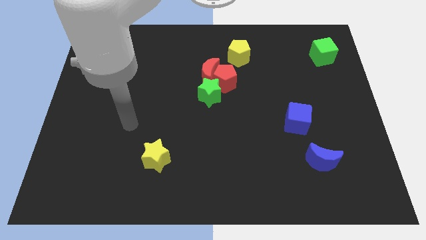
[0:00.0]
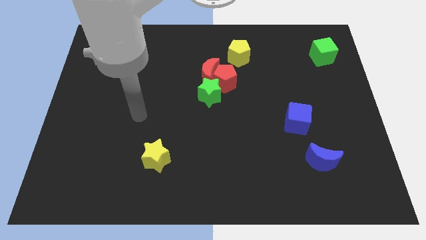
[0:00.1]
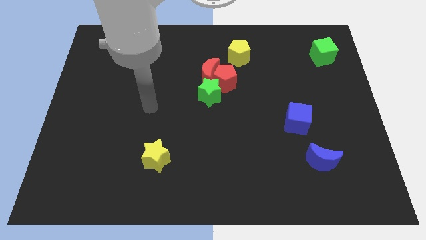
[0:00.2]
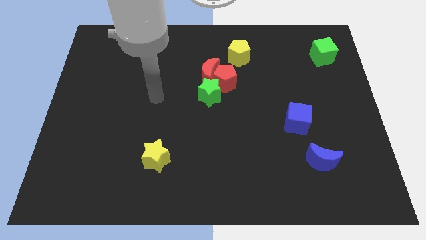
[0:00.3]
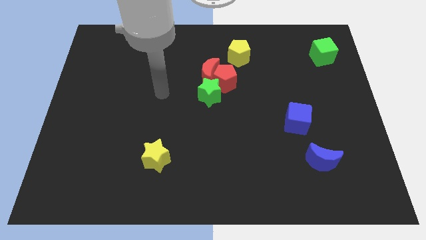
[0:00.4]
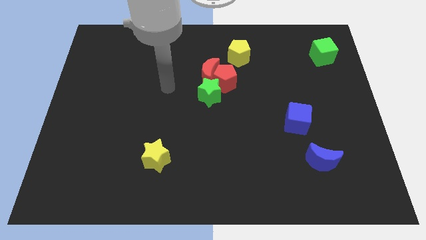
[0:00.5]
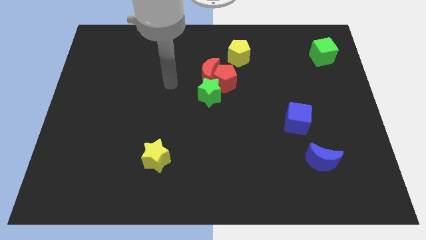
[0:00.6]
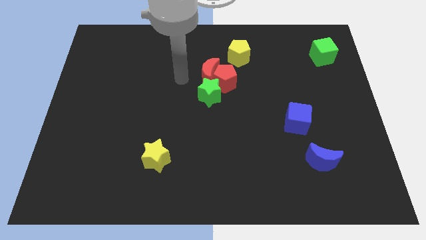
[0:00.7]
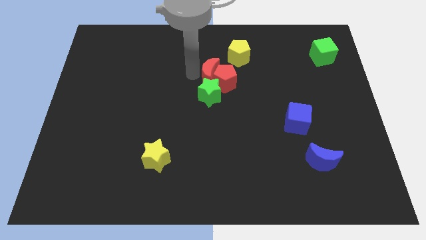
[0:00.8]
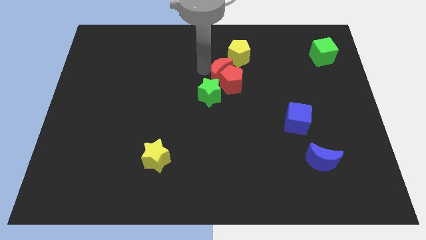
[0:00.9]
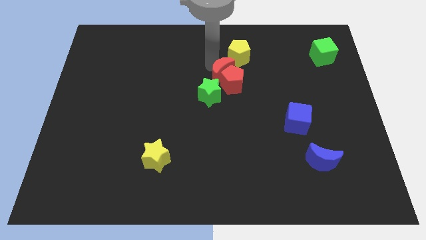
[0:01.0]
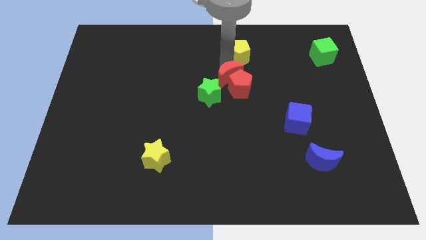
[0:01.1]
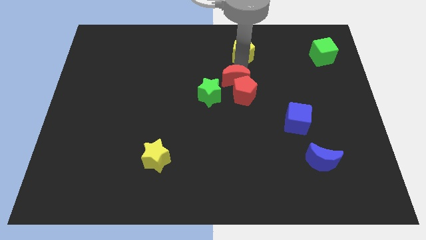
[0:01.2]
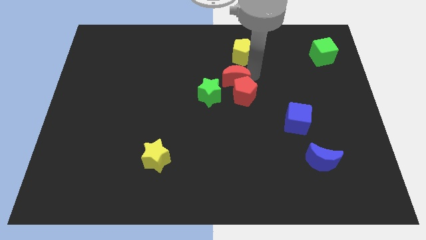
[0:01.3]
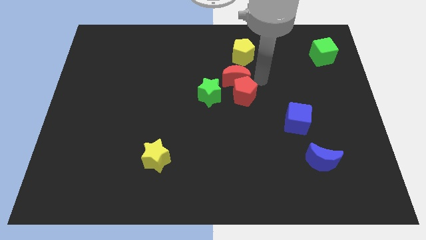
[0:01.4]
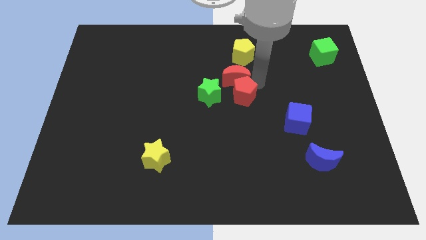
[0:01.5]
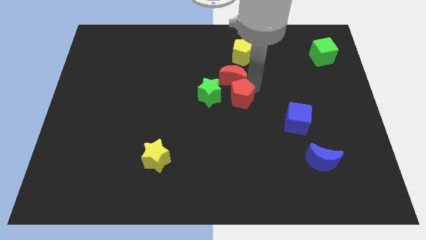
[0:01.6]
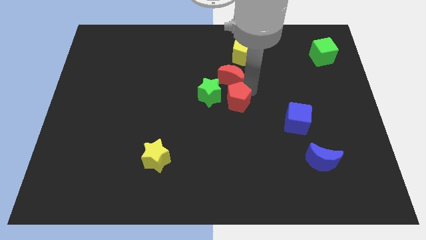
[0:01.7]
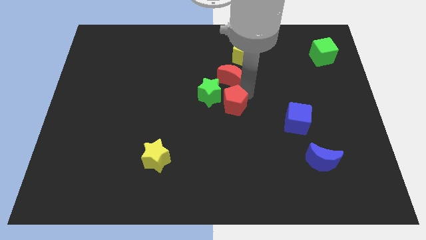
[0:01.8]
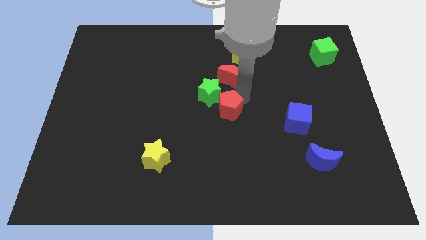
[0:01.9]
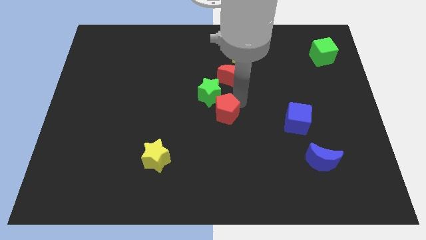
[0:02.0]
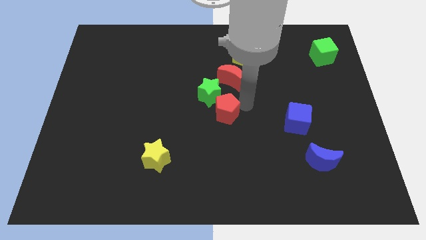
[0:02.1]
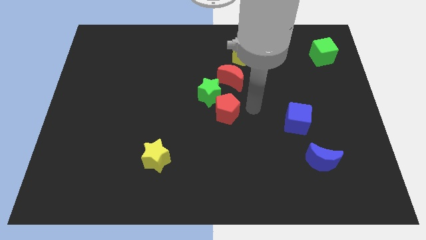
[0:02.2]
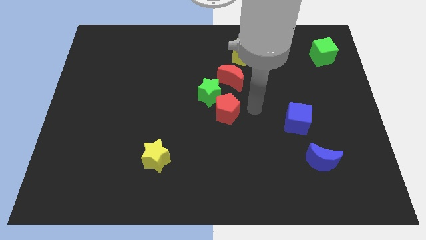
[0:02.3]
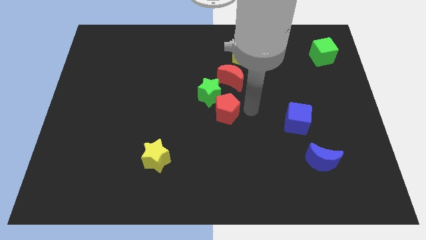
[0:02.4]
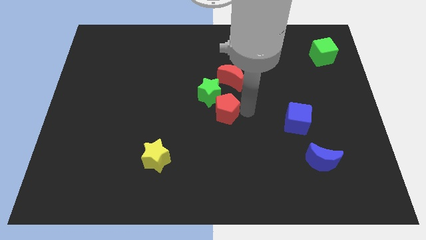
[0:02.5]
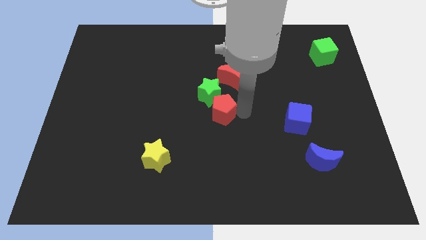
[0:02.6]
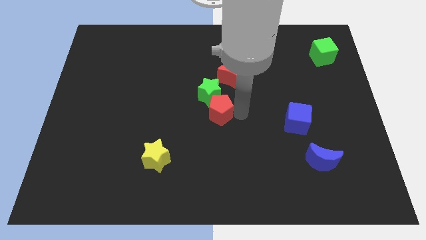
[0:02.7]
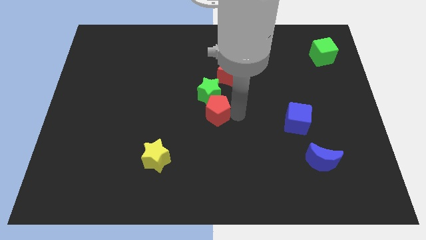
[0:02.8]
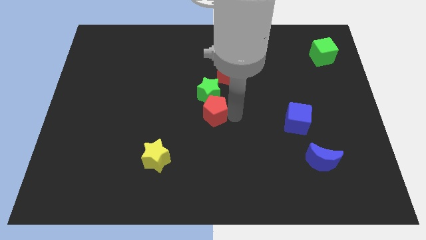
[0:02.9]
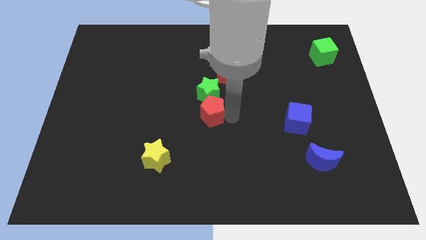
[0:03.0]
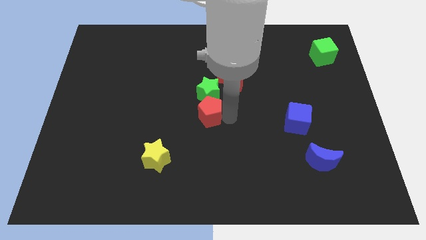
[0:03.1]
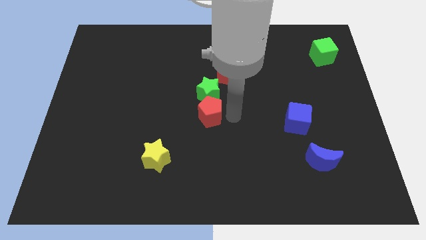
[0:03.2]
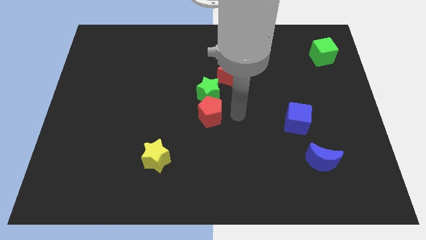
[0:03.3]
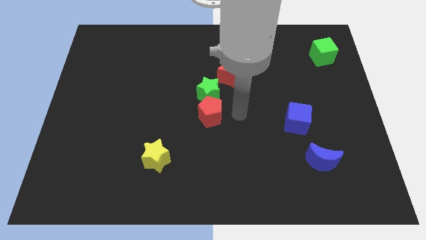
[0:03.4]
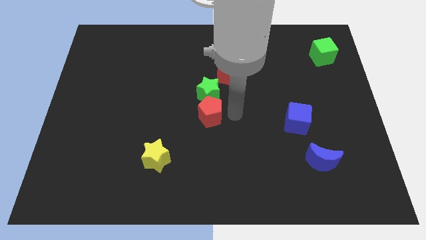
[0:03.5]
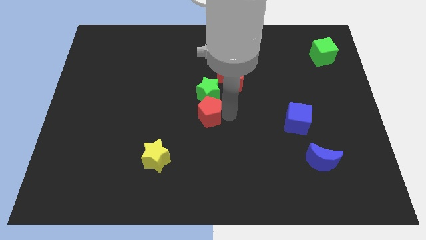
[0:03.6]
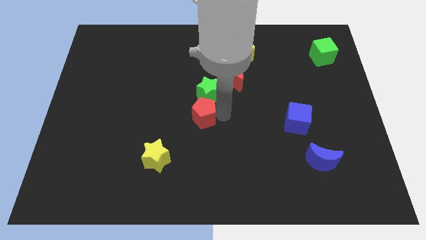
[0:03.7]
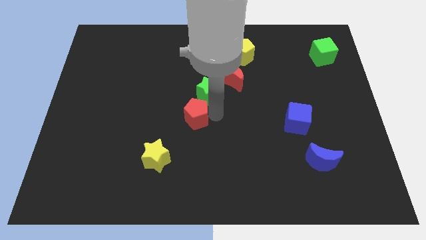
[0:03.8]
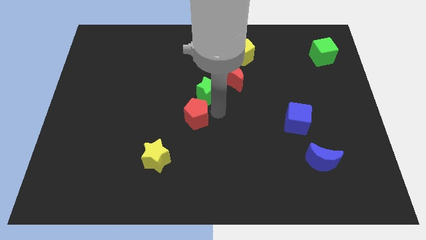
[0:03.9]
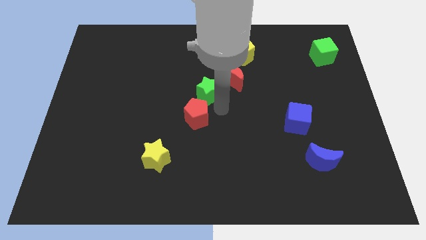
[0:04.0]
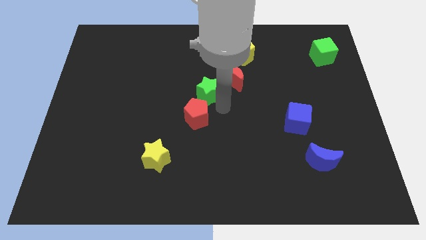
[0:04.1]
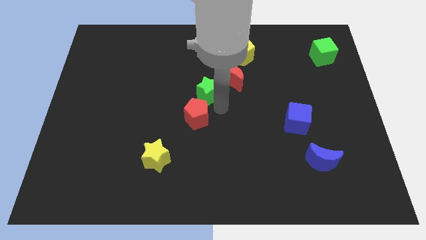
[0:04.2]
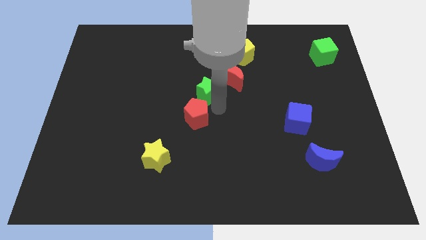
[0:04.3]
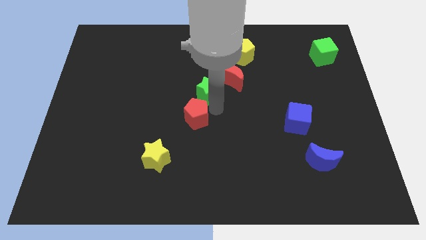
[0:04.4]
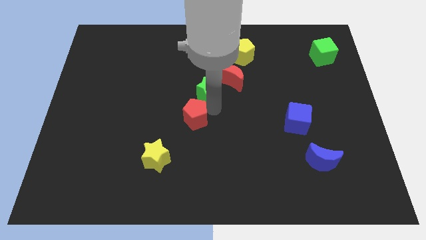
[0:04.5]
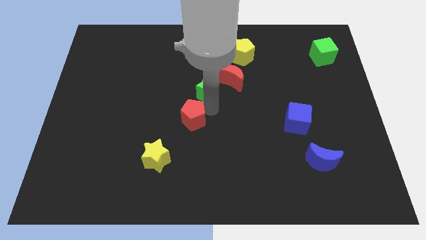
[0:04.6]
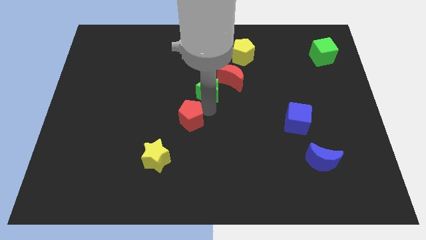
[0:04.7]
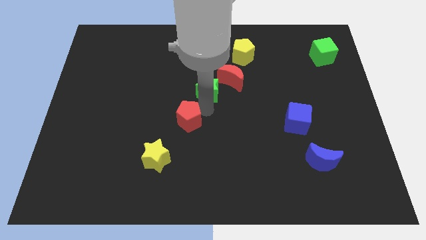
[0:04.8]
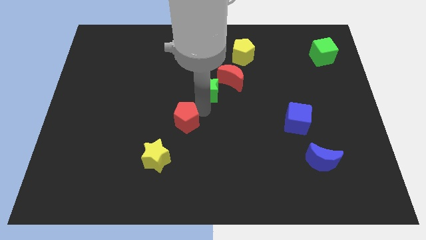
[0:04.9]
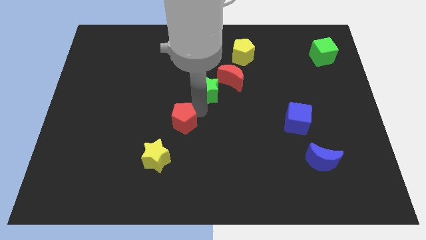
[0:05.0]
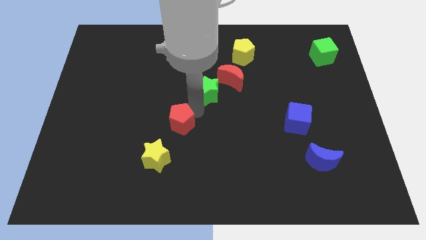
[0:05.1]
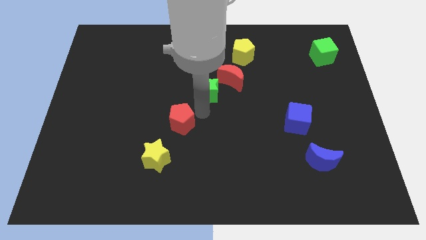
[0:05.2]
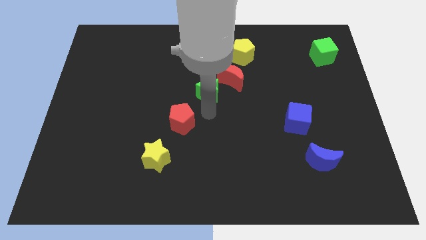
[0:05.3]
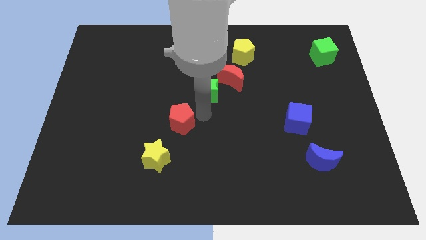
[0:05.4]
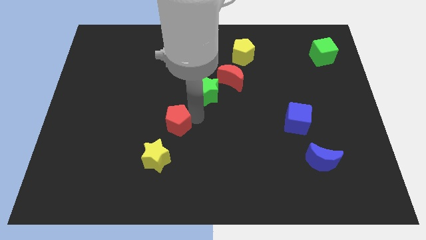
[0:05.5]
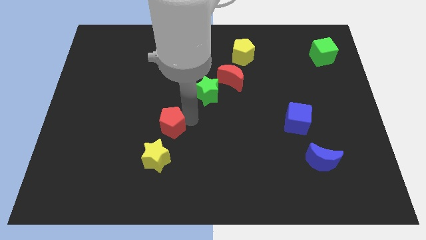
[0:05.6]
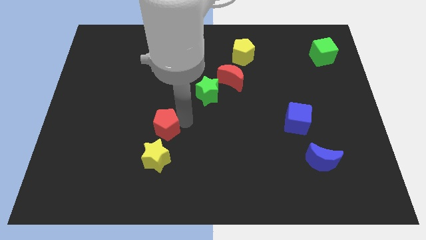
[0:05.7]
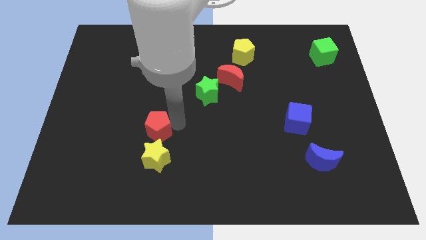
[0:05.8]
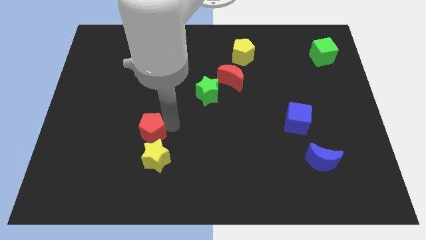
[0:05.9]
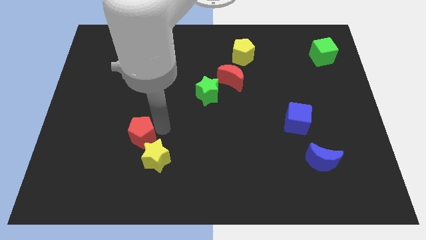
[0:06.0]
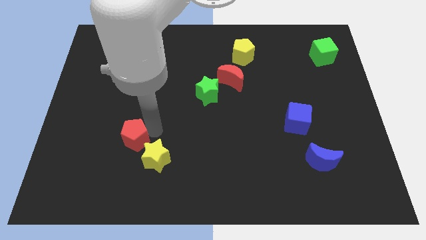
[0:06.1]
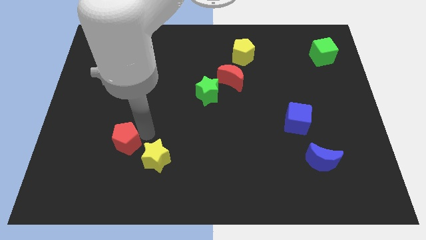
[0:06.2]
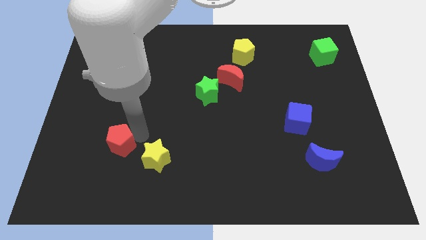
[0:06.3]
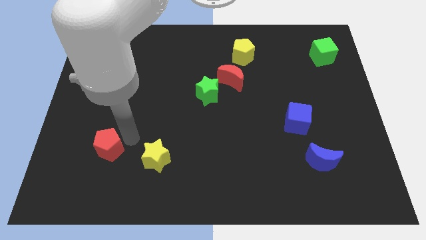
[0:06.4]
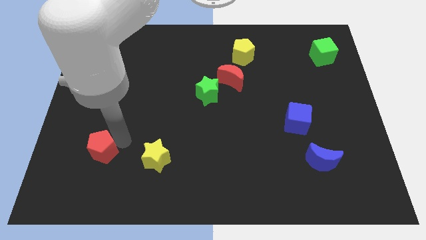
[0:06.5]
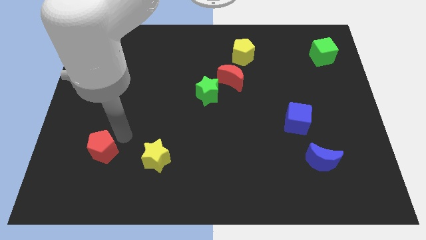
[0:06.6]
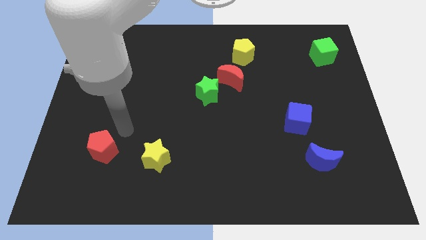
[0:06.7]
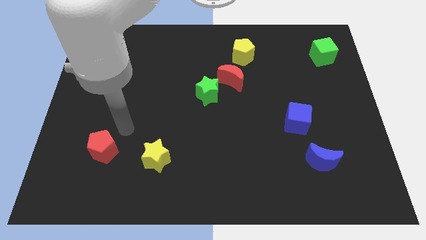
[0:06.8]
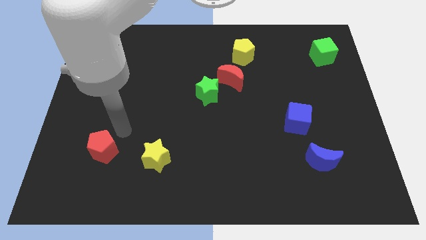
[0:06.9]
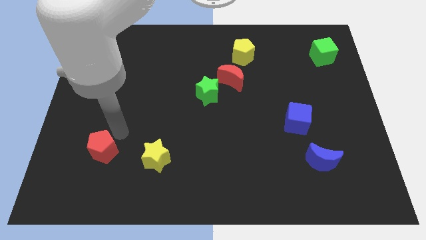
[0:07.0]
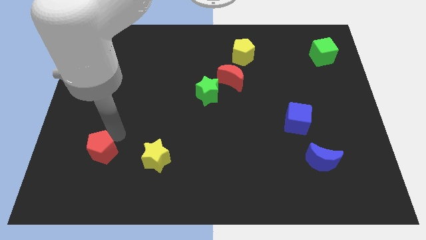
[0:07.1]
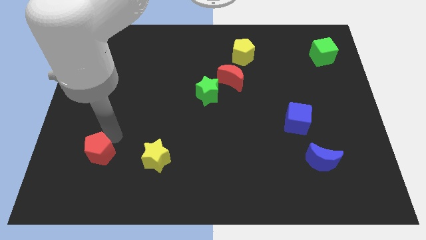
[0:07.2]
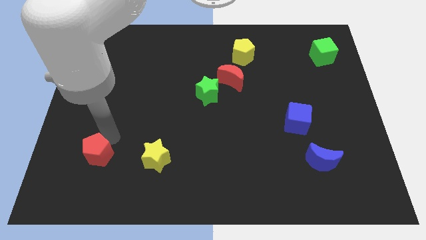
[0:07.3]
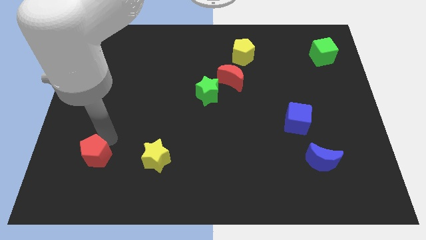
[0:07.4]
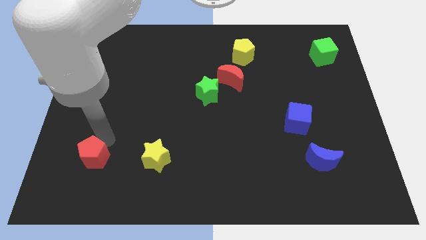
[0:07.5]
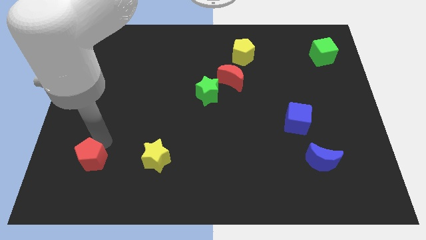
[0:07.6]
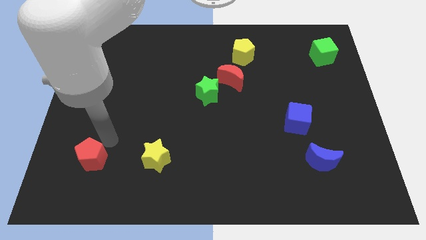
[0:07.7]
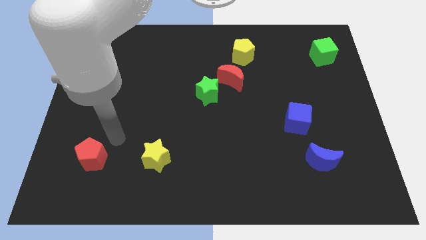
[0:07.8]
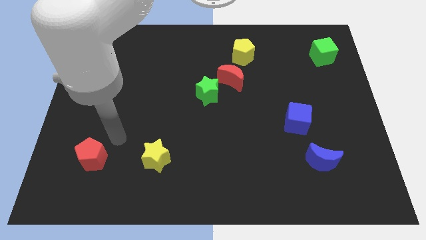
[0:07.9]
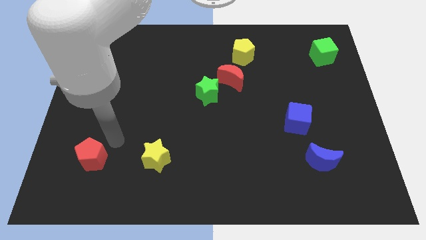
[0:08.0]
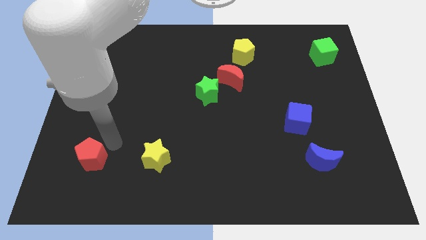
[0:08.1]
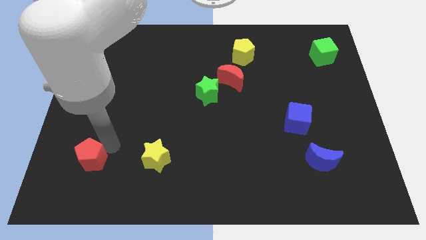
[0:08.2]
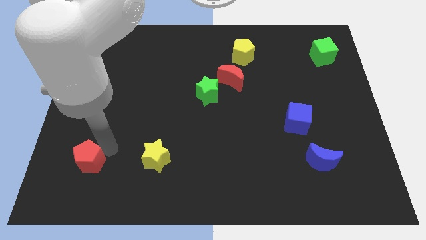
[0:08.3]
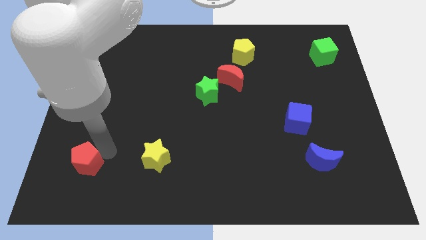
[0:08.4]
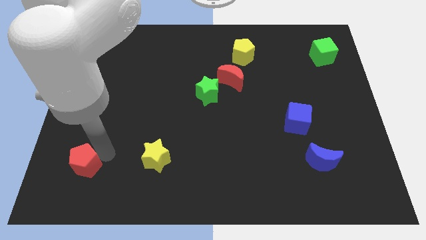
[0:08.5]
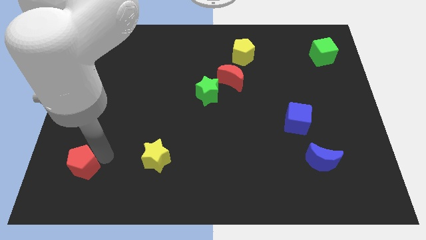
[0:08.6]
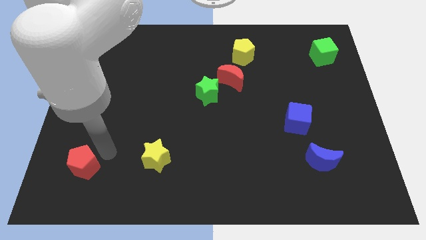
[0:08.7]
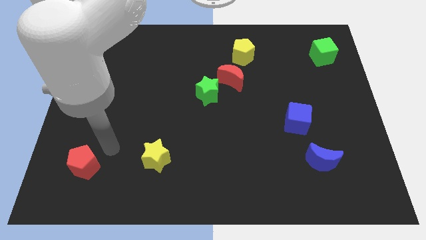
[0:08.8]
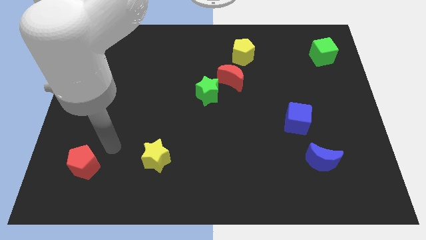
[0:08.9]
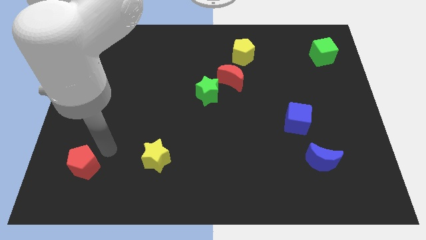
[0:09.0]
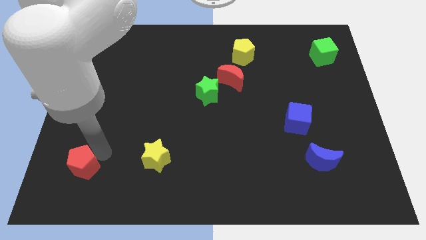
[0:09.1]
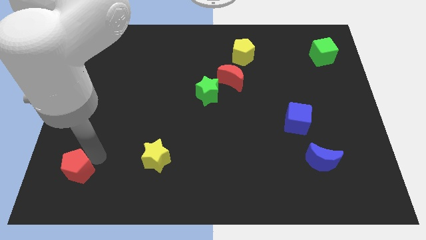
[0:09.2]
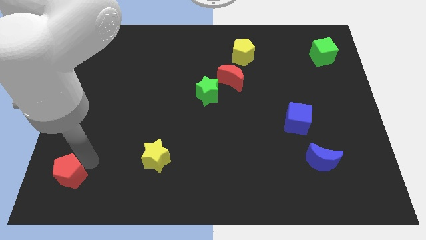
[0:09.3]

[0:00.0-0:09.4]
slide the red pentagon to the bottom left of the board
